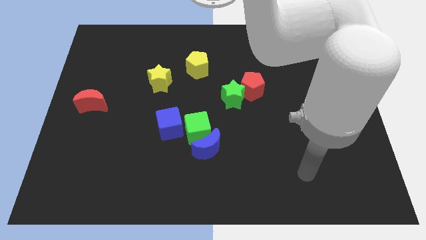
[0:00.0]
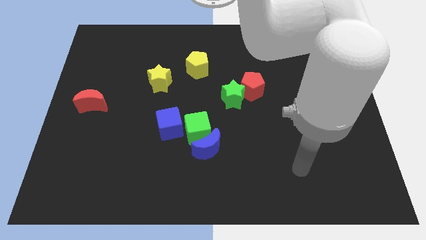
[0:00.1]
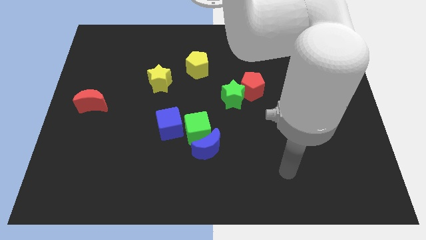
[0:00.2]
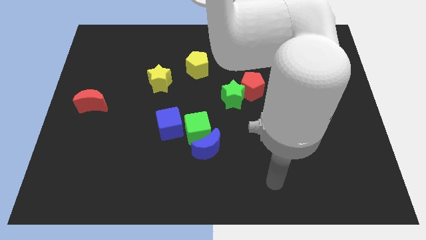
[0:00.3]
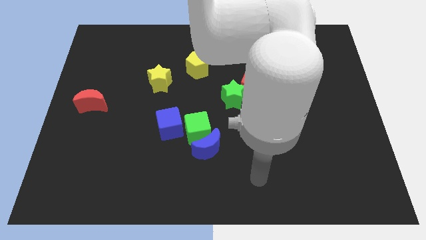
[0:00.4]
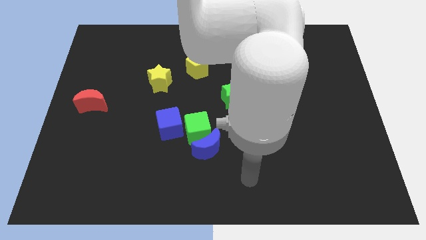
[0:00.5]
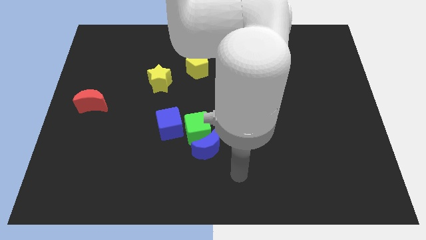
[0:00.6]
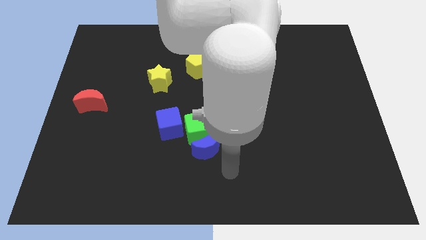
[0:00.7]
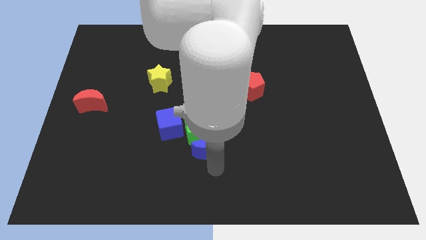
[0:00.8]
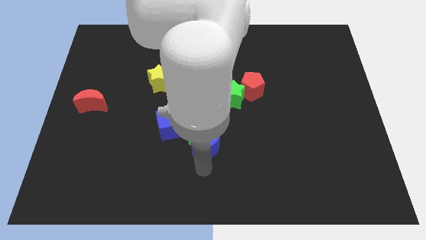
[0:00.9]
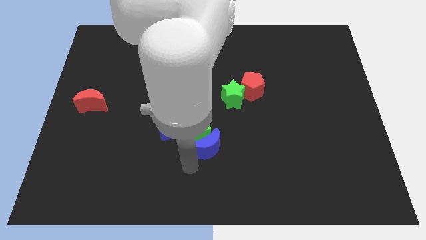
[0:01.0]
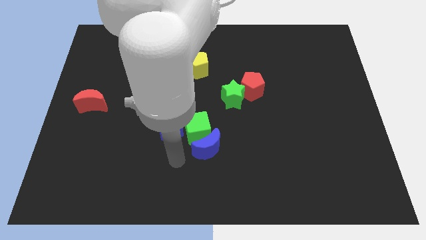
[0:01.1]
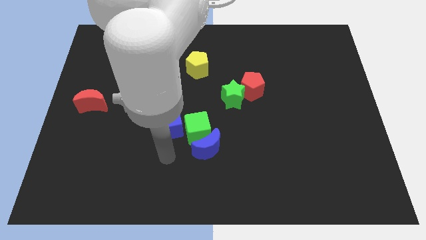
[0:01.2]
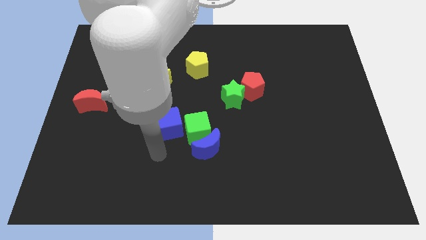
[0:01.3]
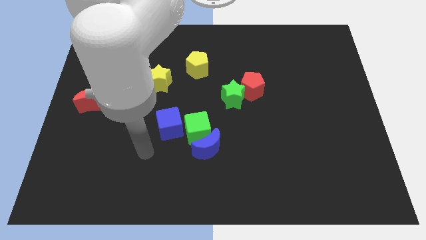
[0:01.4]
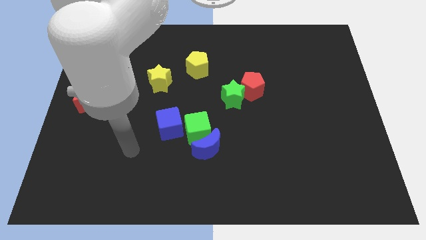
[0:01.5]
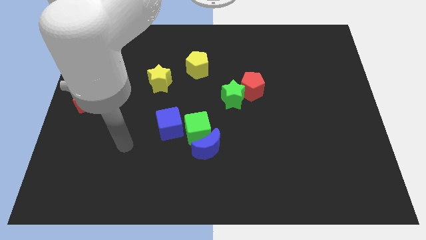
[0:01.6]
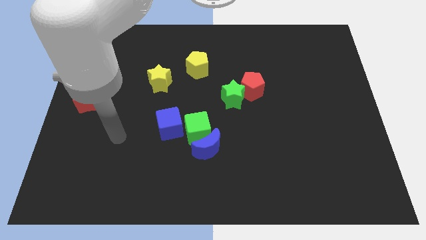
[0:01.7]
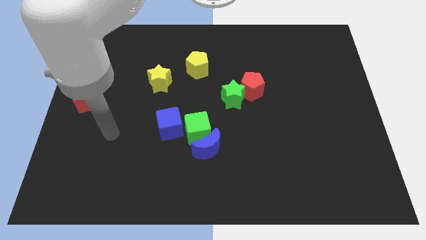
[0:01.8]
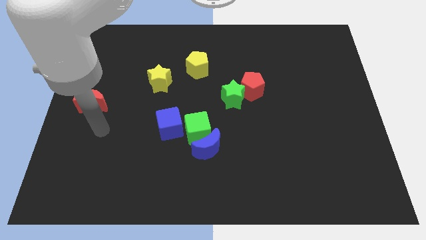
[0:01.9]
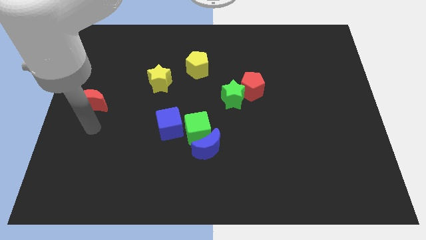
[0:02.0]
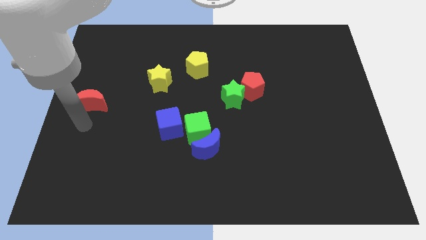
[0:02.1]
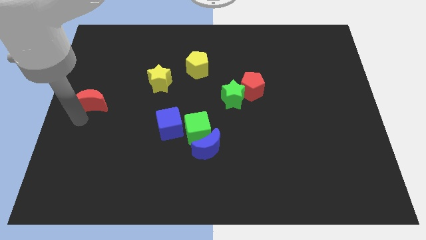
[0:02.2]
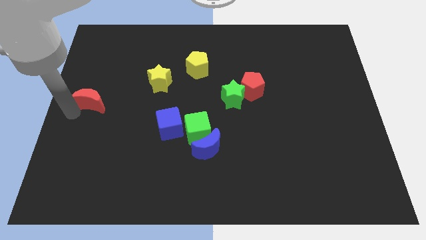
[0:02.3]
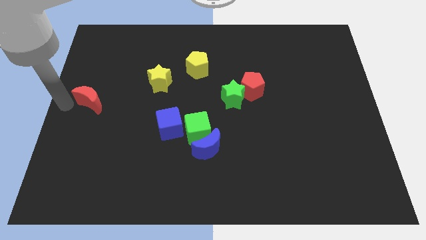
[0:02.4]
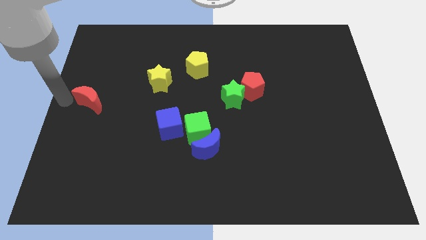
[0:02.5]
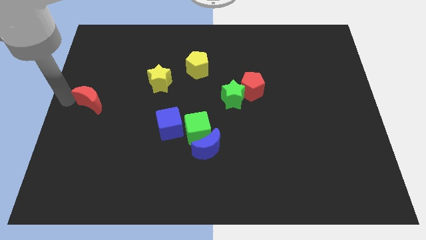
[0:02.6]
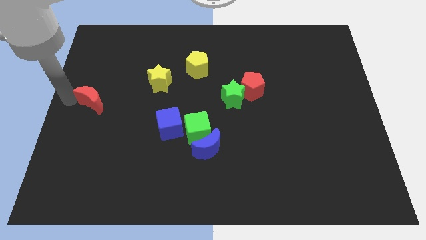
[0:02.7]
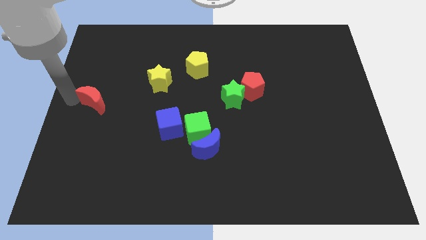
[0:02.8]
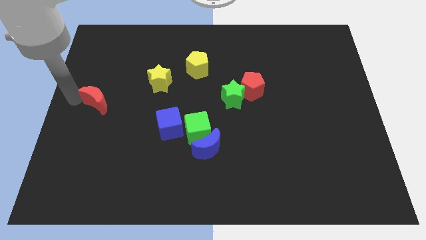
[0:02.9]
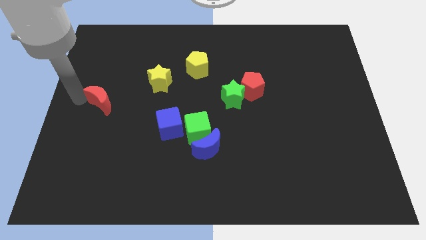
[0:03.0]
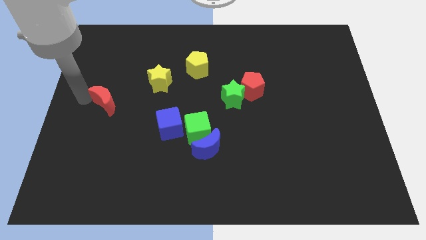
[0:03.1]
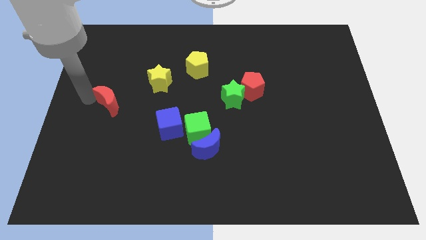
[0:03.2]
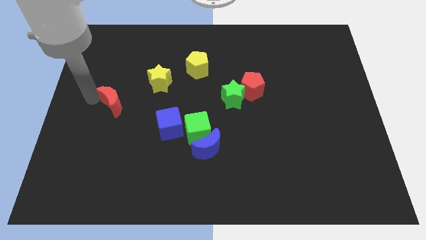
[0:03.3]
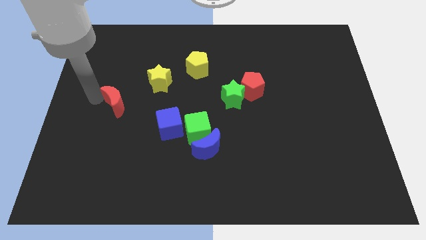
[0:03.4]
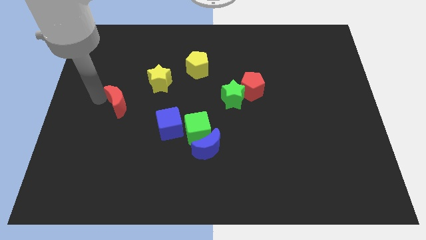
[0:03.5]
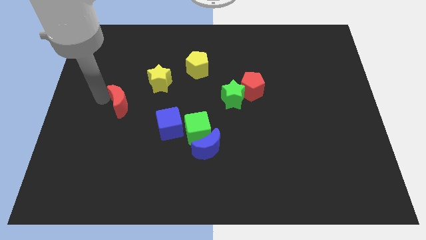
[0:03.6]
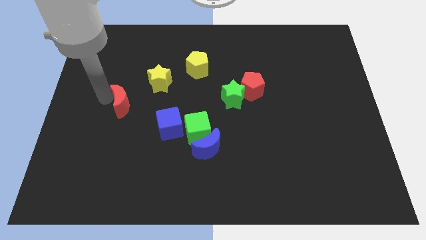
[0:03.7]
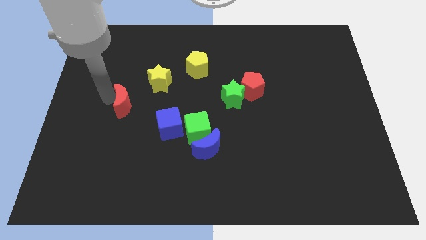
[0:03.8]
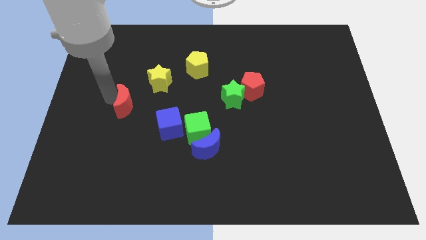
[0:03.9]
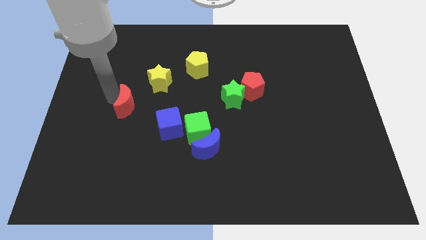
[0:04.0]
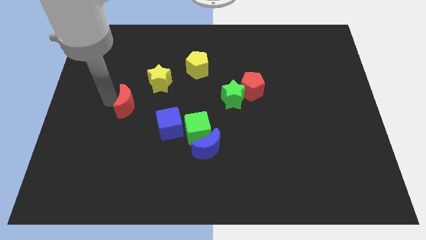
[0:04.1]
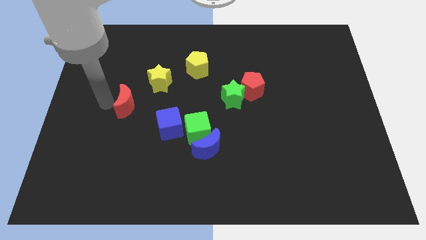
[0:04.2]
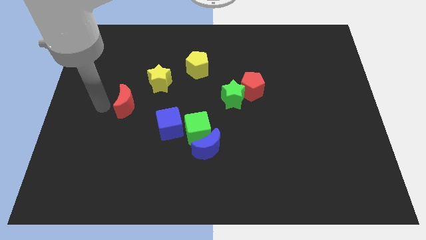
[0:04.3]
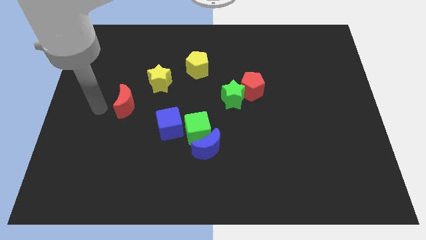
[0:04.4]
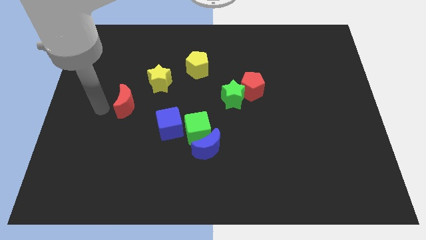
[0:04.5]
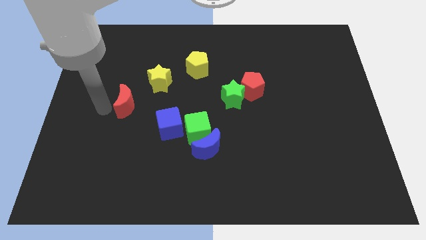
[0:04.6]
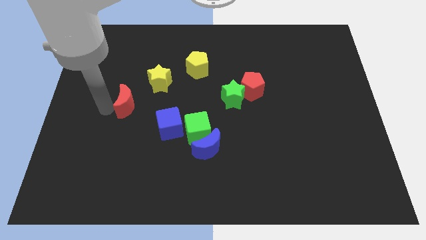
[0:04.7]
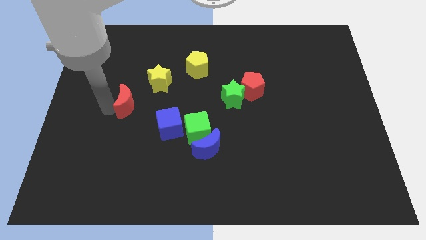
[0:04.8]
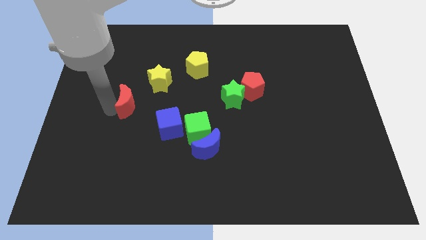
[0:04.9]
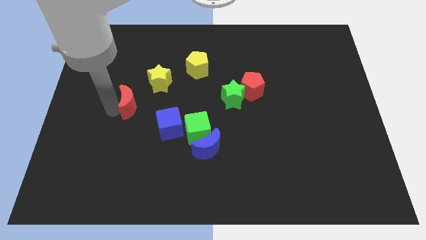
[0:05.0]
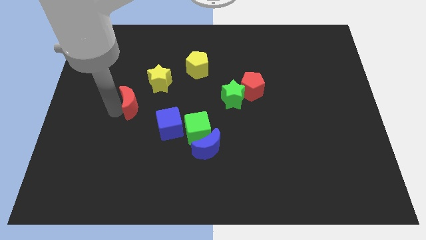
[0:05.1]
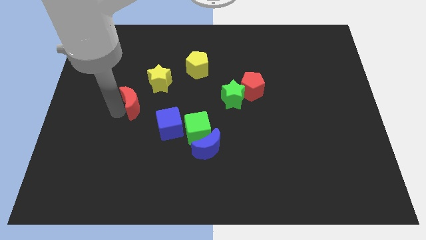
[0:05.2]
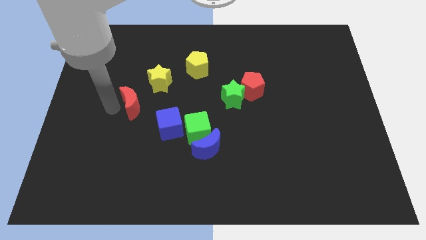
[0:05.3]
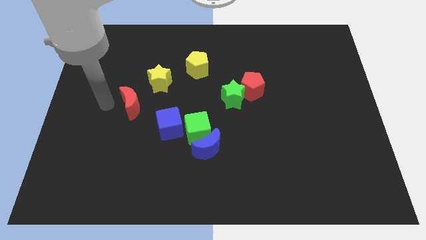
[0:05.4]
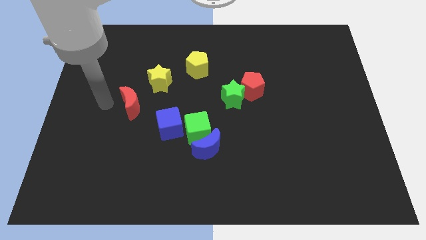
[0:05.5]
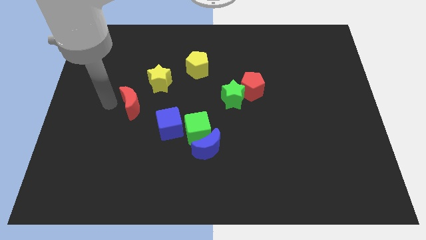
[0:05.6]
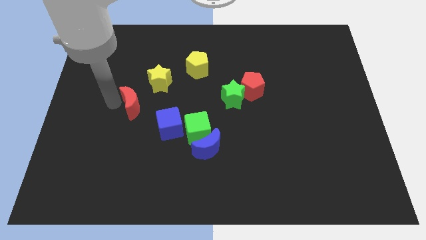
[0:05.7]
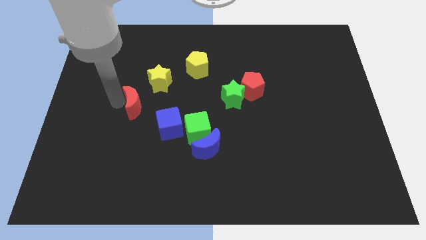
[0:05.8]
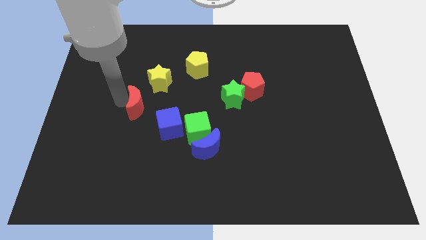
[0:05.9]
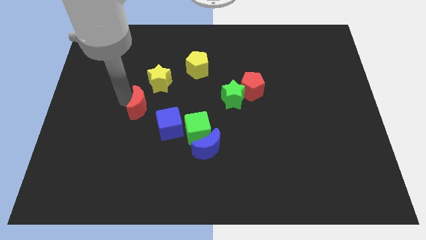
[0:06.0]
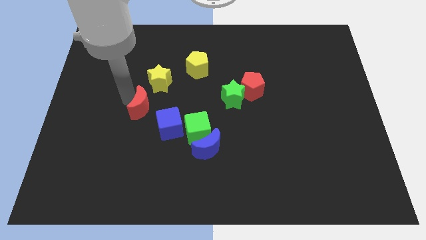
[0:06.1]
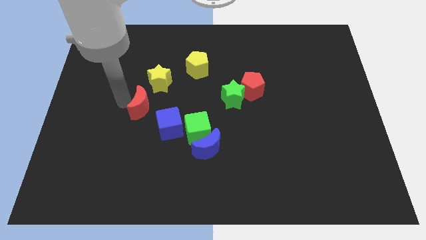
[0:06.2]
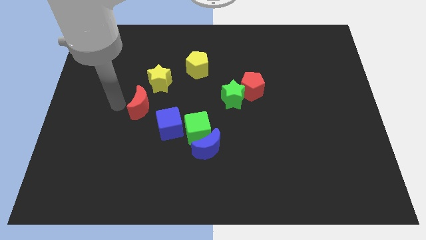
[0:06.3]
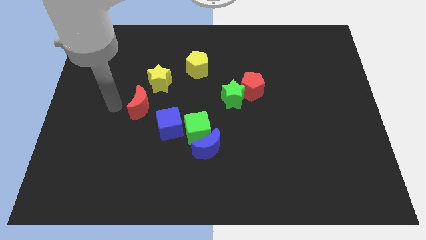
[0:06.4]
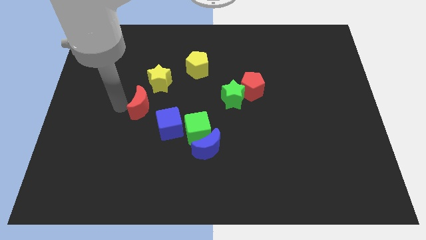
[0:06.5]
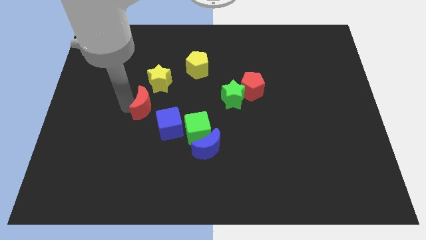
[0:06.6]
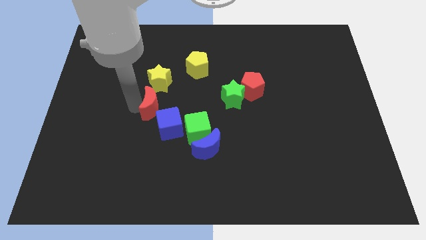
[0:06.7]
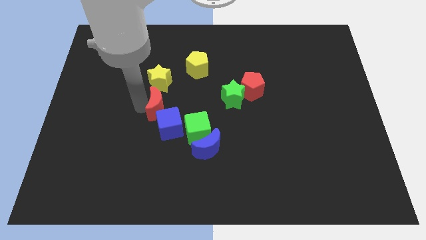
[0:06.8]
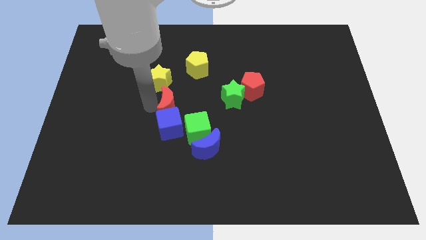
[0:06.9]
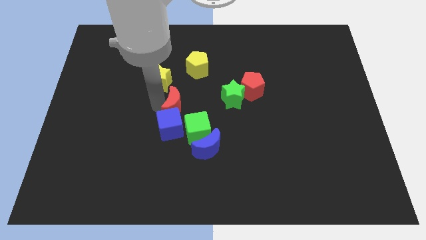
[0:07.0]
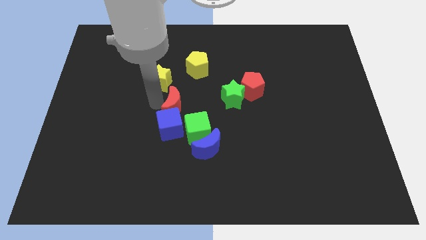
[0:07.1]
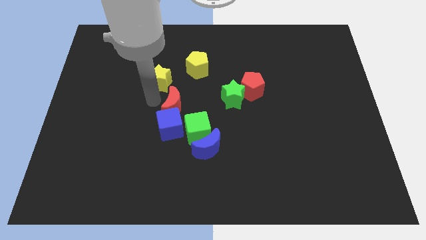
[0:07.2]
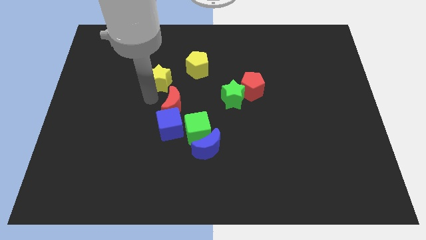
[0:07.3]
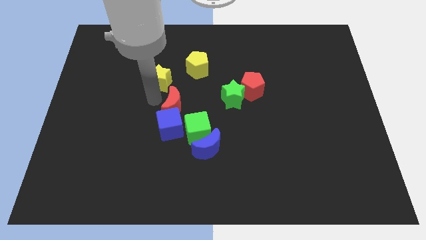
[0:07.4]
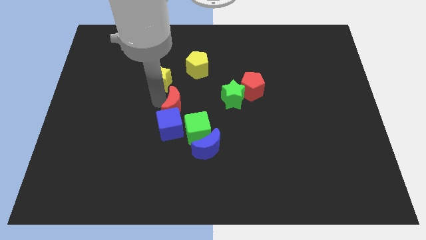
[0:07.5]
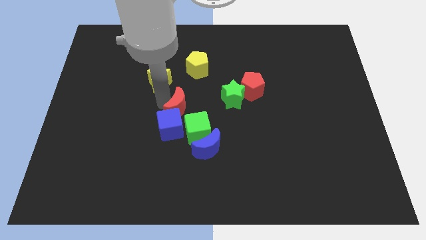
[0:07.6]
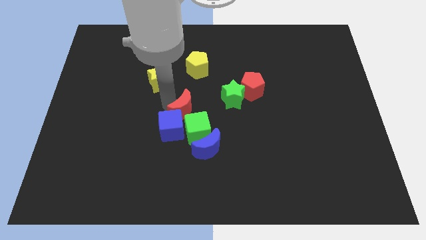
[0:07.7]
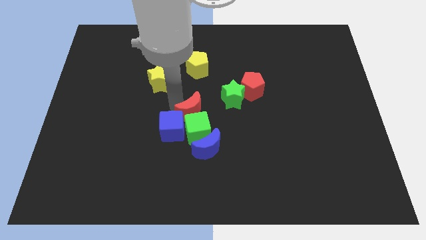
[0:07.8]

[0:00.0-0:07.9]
push the red moon to the green cube
